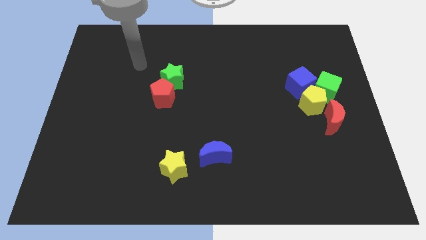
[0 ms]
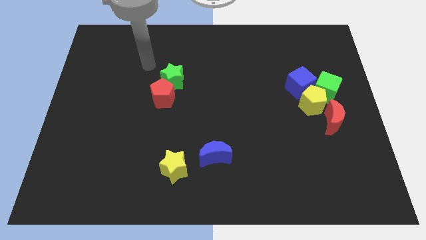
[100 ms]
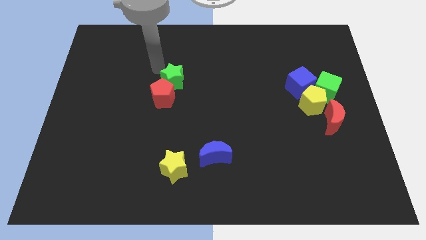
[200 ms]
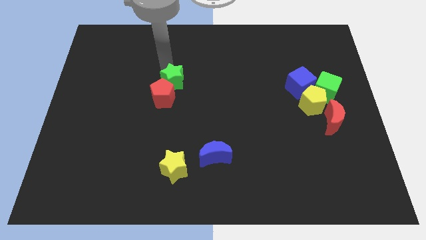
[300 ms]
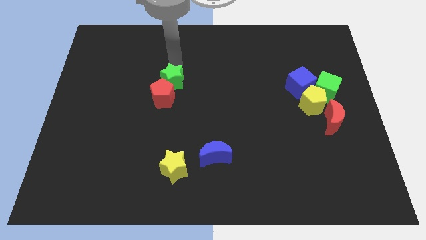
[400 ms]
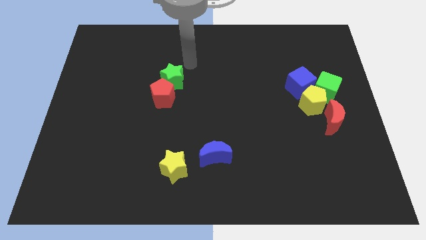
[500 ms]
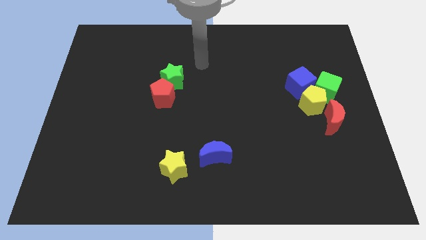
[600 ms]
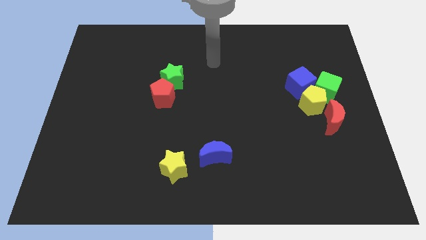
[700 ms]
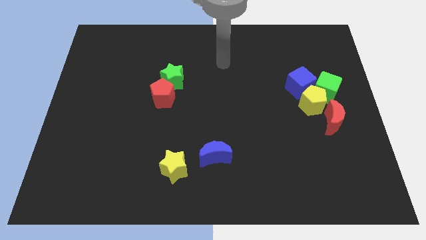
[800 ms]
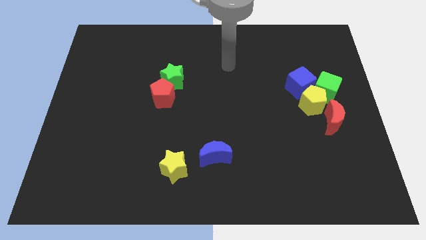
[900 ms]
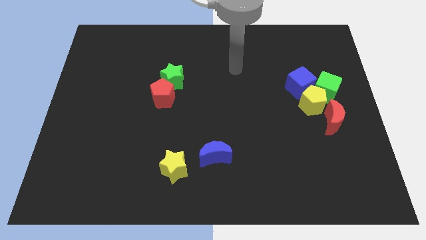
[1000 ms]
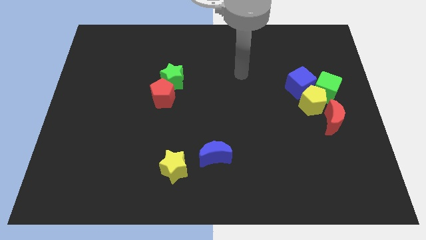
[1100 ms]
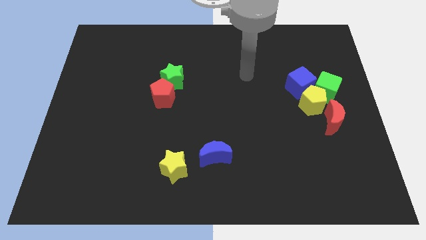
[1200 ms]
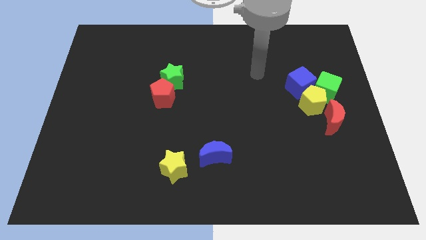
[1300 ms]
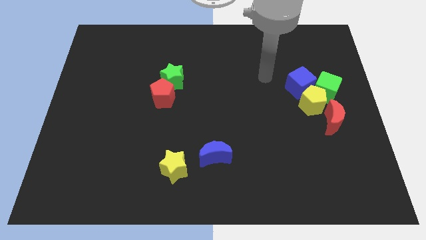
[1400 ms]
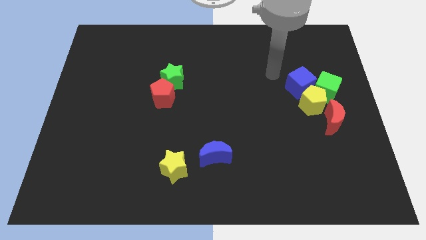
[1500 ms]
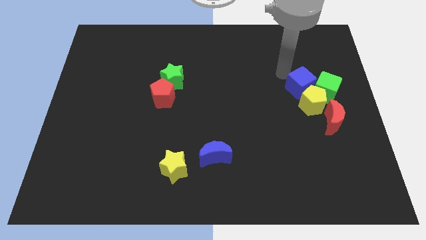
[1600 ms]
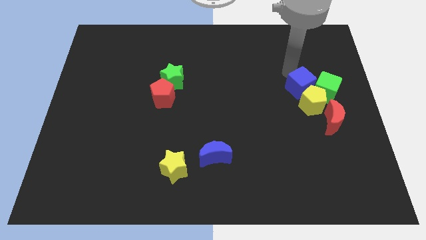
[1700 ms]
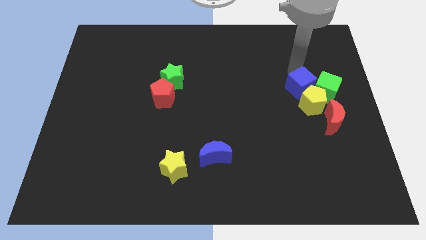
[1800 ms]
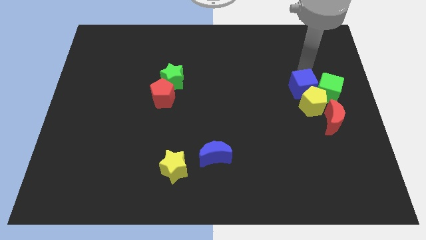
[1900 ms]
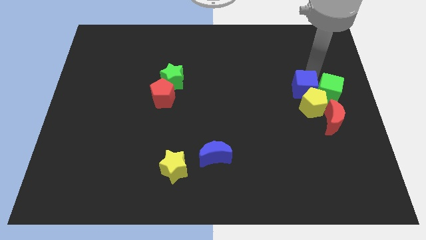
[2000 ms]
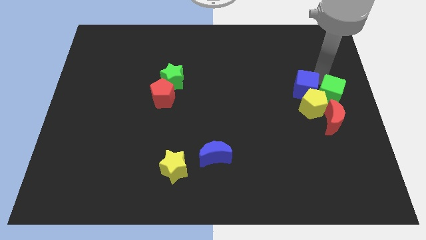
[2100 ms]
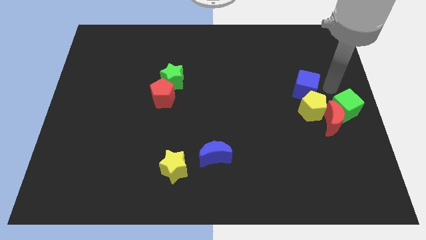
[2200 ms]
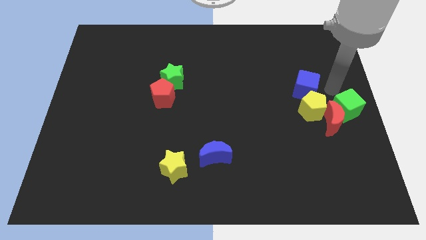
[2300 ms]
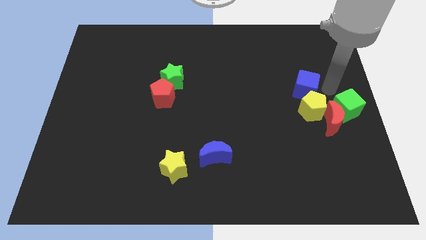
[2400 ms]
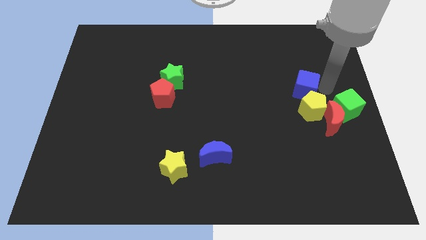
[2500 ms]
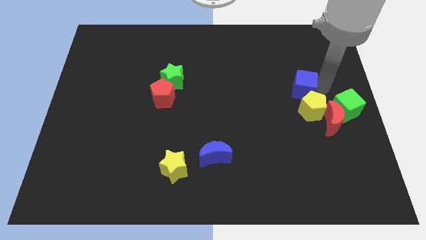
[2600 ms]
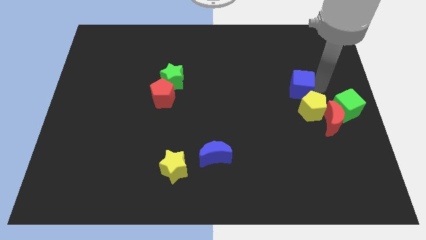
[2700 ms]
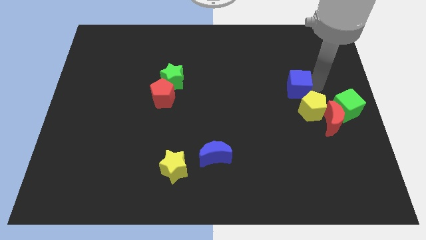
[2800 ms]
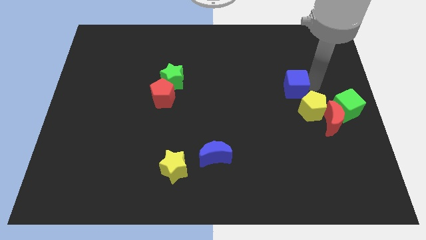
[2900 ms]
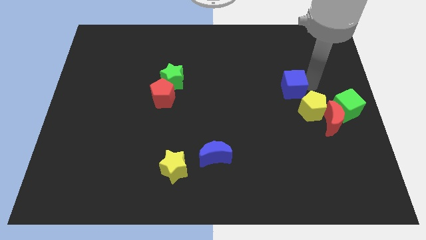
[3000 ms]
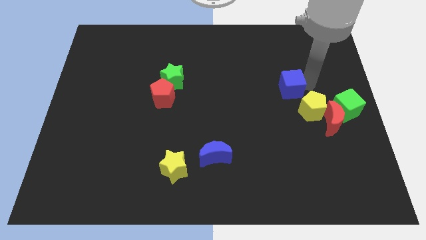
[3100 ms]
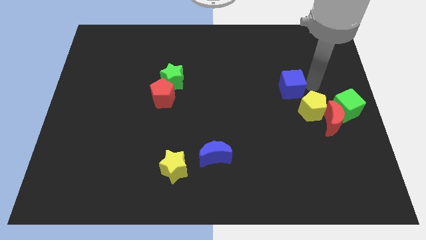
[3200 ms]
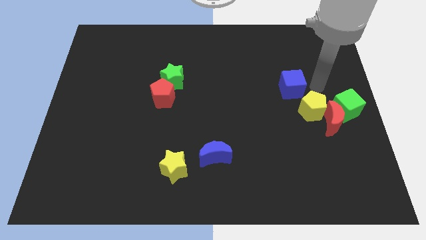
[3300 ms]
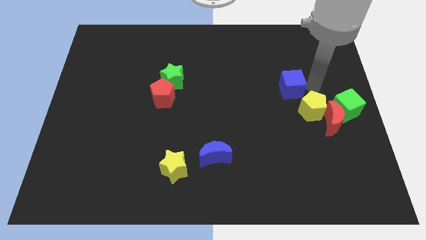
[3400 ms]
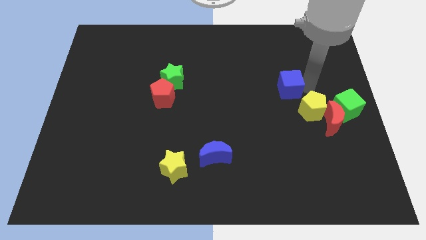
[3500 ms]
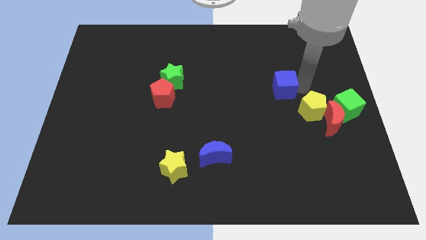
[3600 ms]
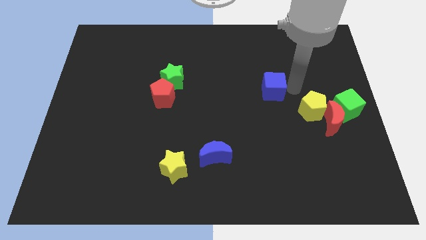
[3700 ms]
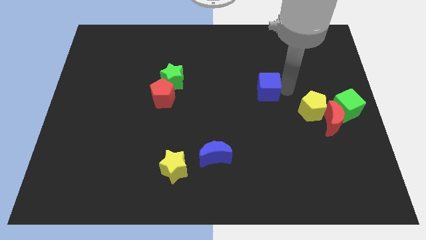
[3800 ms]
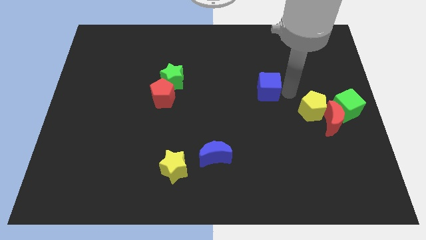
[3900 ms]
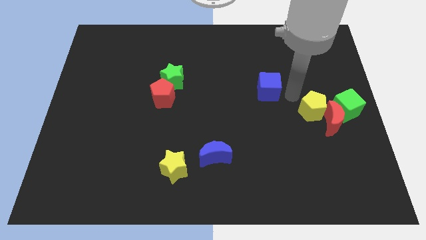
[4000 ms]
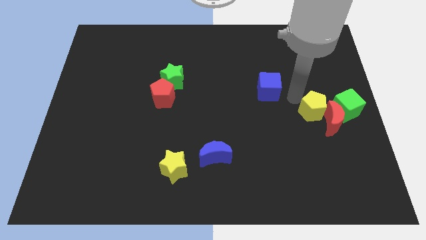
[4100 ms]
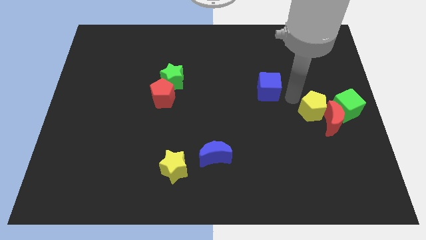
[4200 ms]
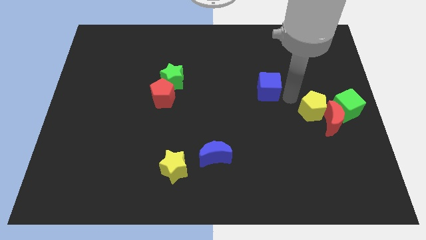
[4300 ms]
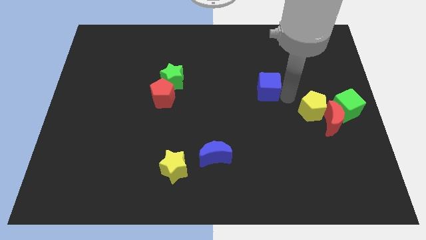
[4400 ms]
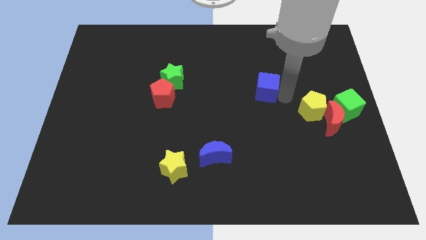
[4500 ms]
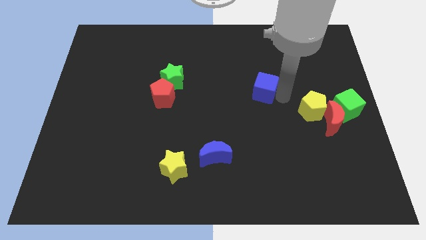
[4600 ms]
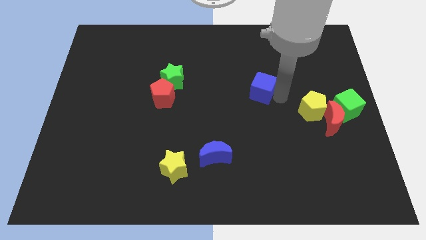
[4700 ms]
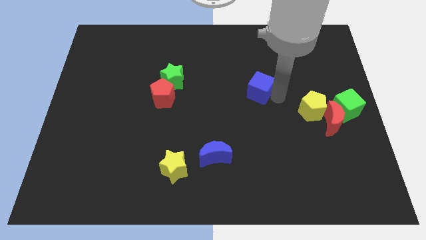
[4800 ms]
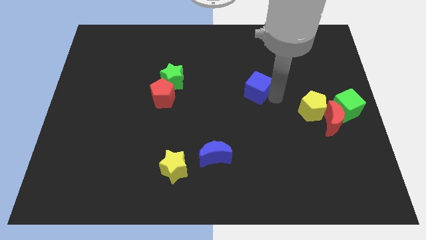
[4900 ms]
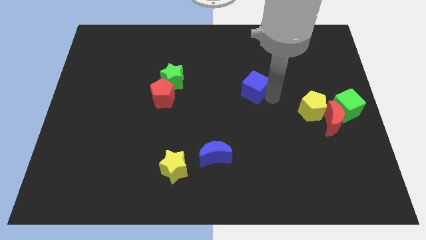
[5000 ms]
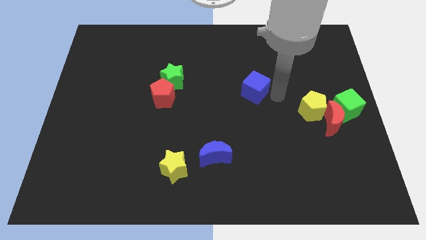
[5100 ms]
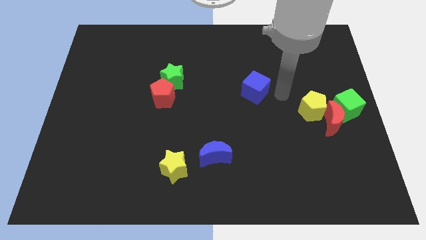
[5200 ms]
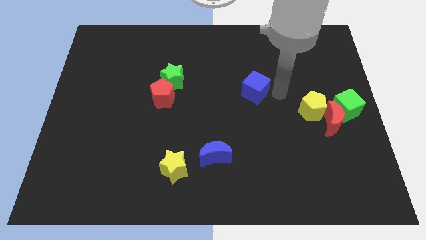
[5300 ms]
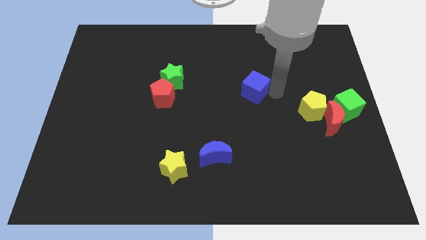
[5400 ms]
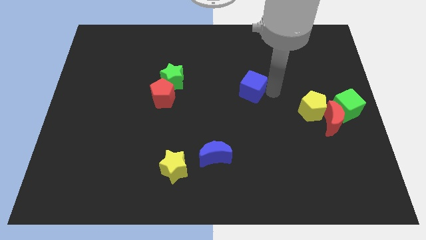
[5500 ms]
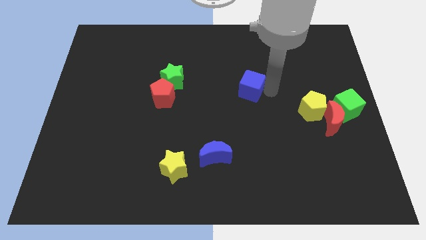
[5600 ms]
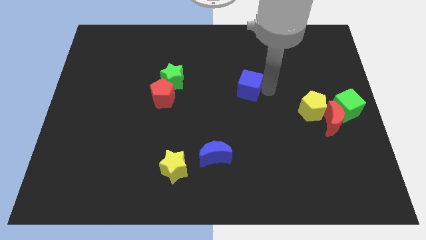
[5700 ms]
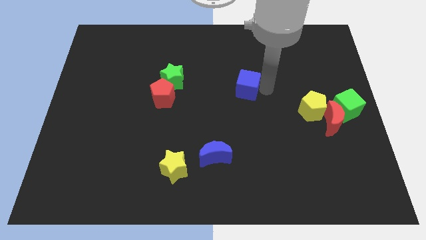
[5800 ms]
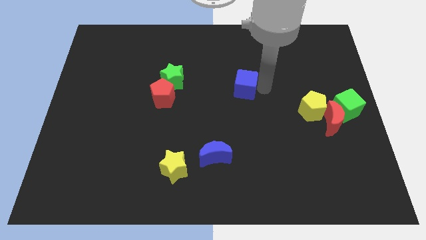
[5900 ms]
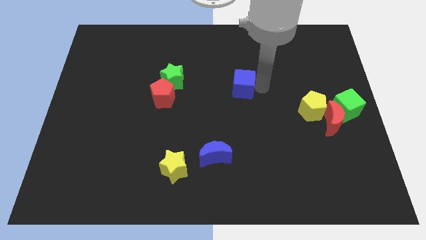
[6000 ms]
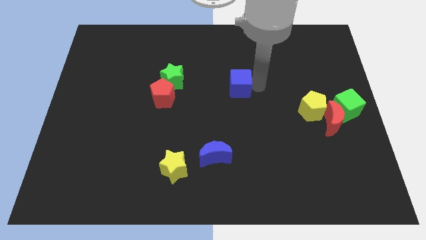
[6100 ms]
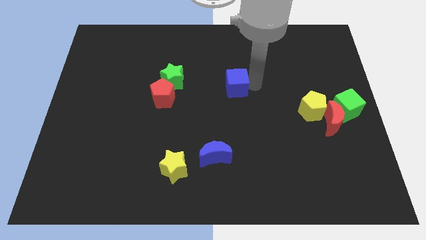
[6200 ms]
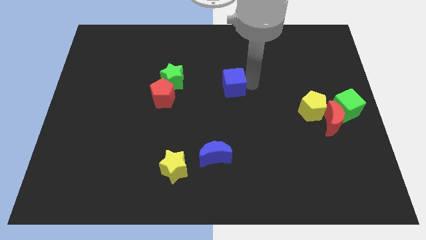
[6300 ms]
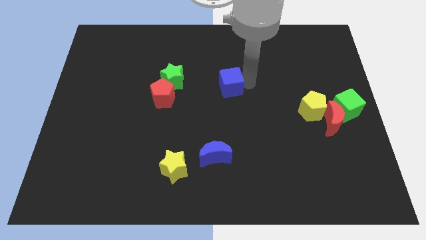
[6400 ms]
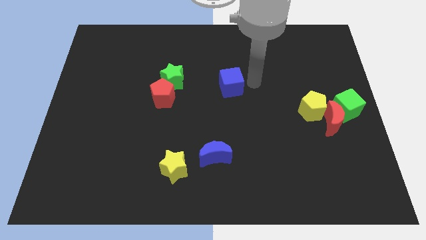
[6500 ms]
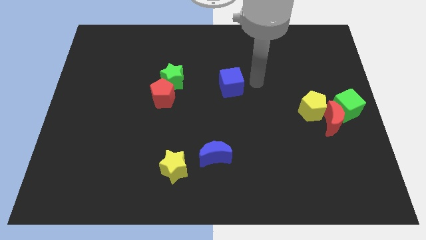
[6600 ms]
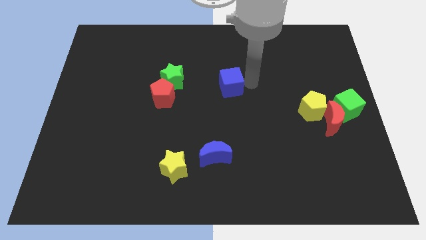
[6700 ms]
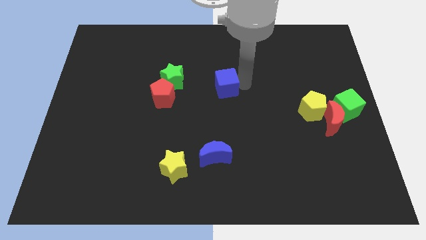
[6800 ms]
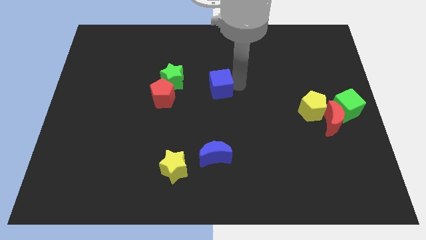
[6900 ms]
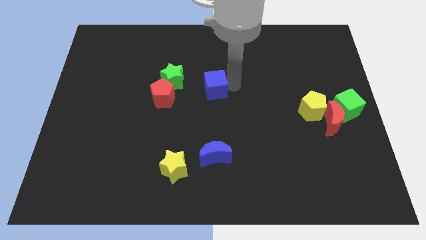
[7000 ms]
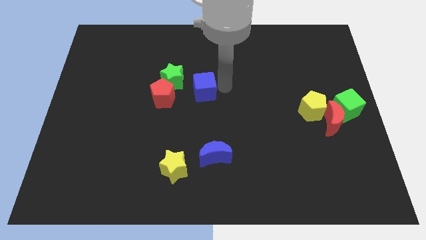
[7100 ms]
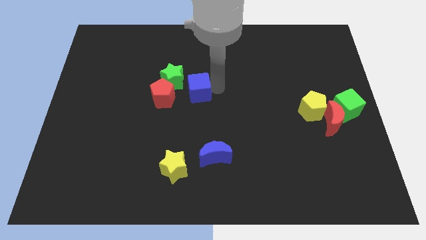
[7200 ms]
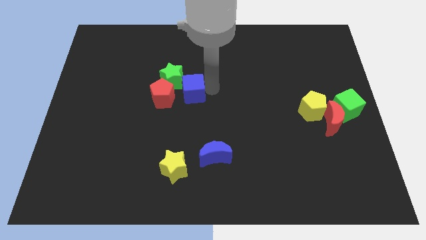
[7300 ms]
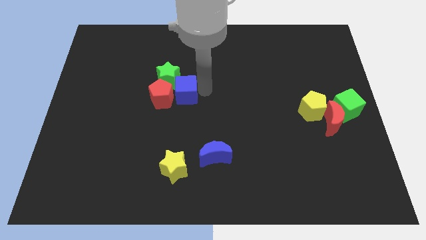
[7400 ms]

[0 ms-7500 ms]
put the blue cube towards the red pentagon

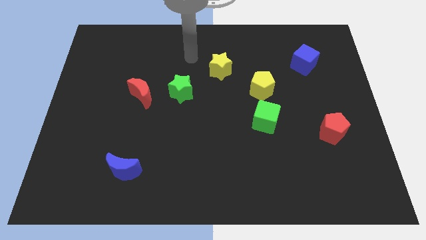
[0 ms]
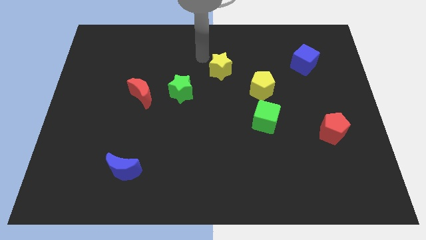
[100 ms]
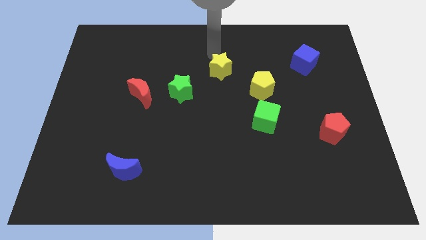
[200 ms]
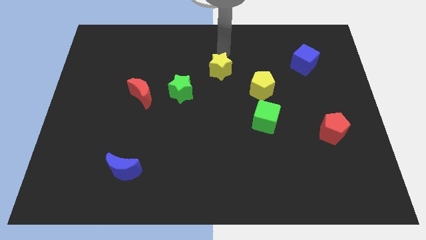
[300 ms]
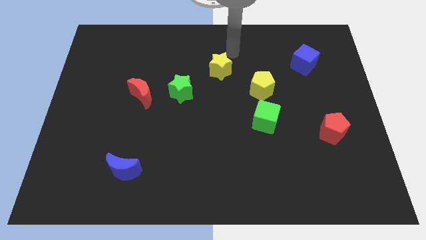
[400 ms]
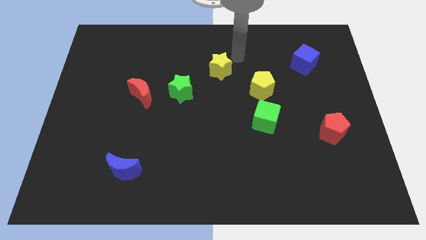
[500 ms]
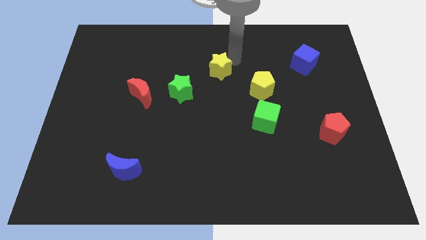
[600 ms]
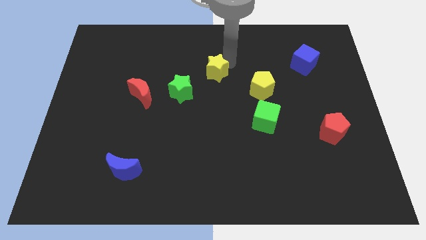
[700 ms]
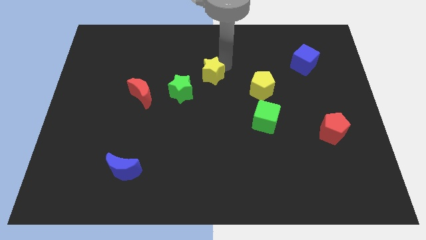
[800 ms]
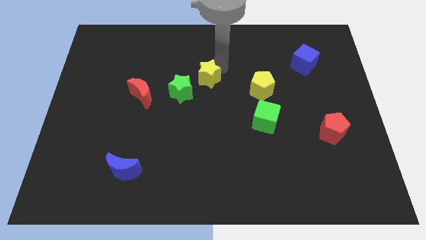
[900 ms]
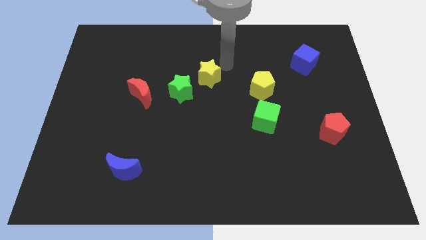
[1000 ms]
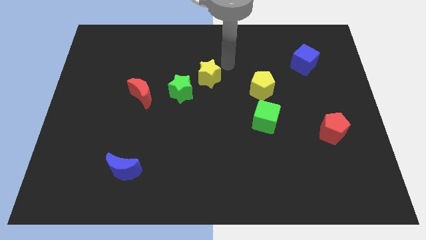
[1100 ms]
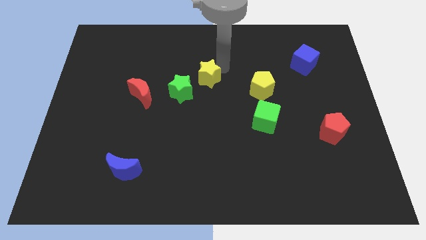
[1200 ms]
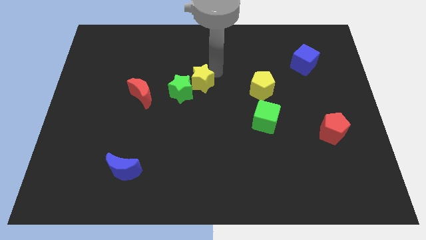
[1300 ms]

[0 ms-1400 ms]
slide the yellow star to the green star
